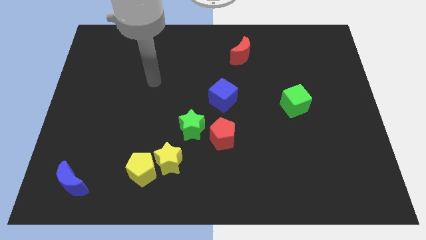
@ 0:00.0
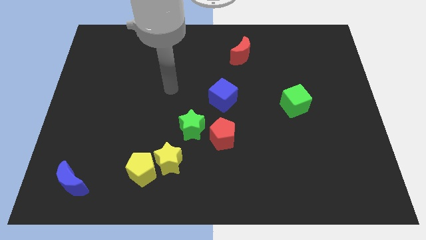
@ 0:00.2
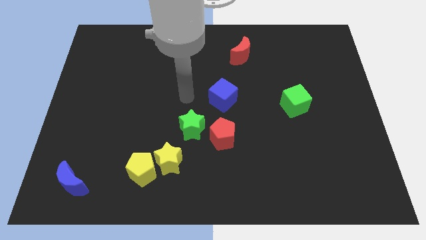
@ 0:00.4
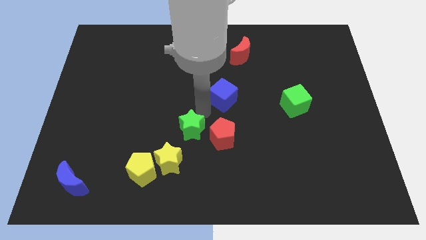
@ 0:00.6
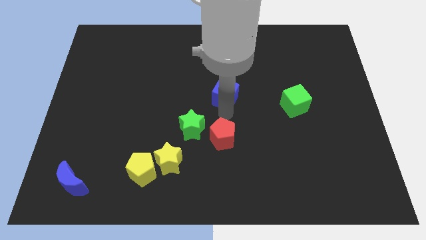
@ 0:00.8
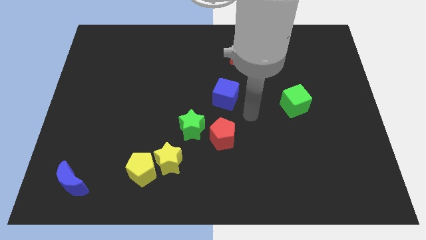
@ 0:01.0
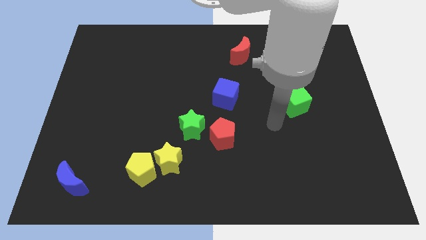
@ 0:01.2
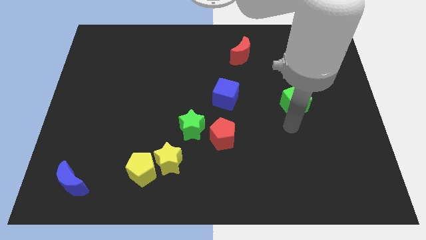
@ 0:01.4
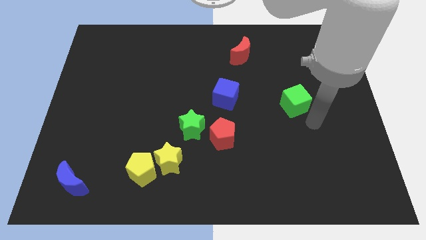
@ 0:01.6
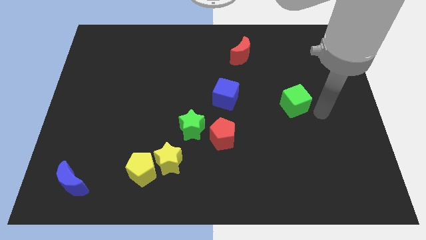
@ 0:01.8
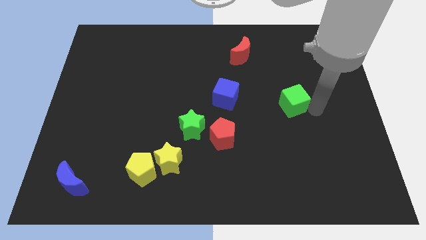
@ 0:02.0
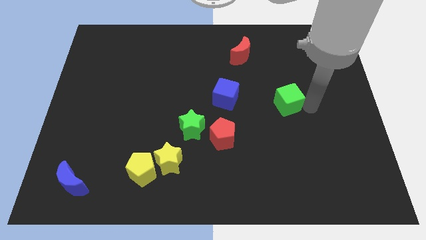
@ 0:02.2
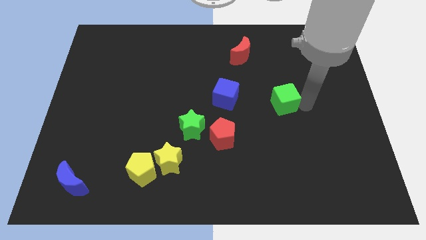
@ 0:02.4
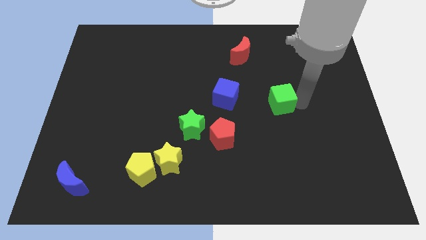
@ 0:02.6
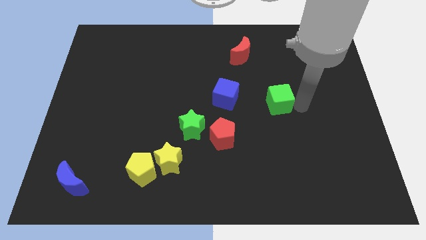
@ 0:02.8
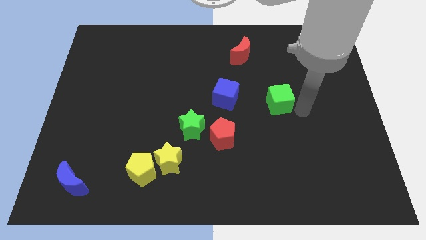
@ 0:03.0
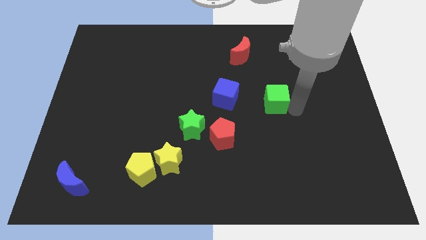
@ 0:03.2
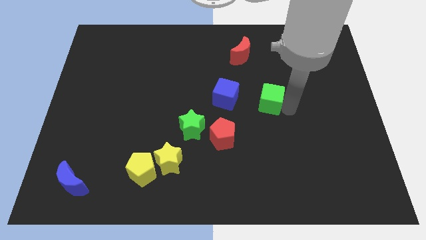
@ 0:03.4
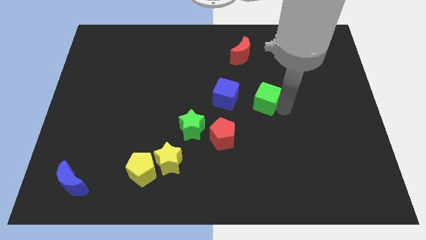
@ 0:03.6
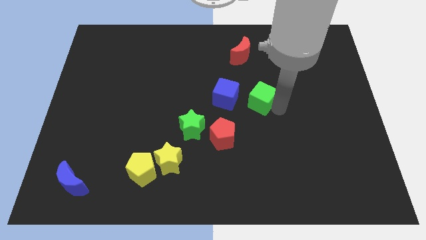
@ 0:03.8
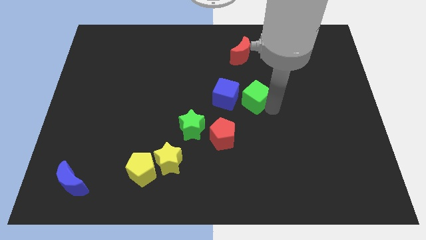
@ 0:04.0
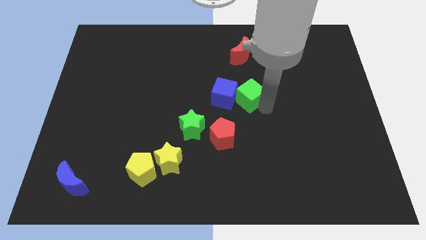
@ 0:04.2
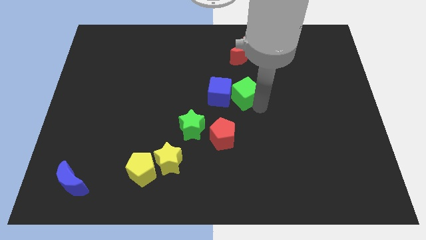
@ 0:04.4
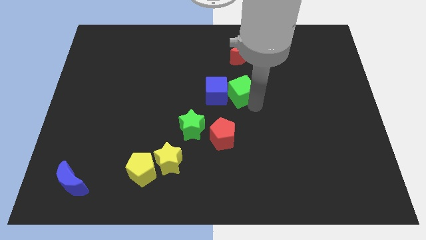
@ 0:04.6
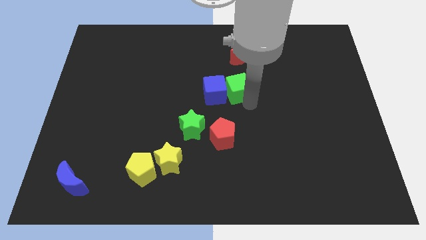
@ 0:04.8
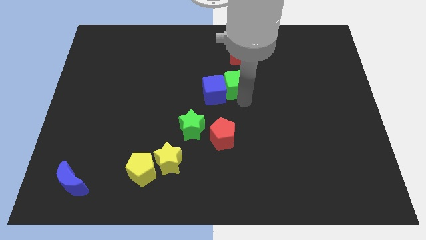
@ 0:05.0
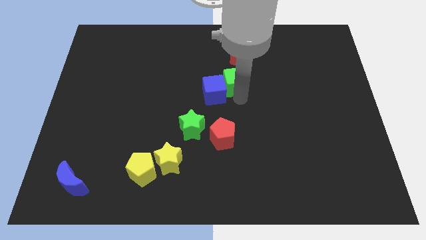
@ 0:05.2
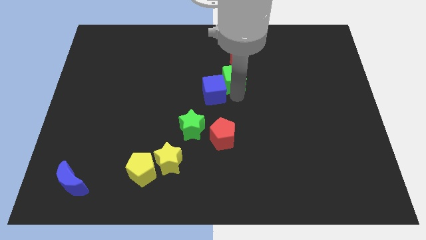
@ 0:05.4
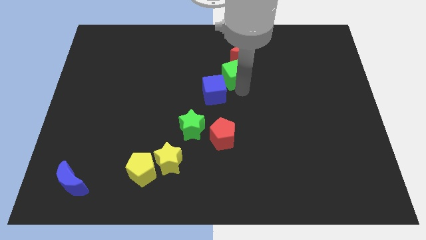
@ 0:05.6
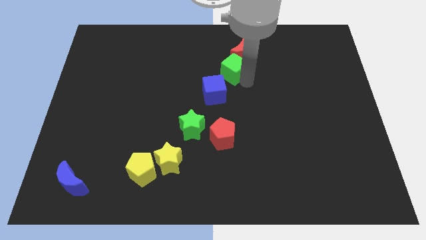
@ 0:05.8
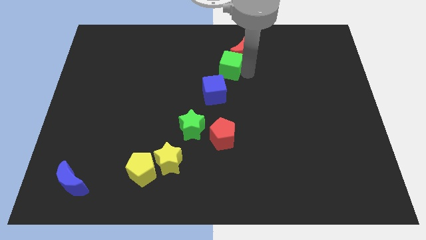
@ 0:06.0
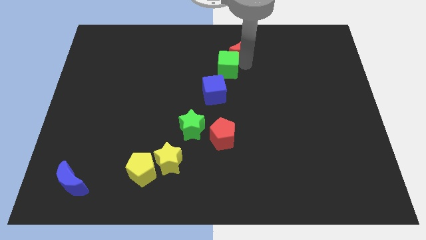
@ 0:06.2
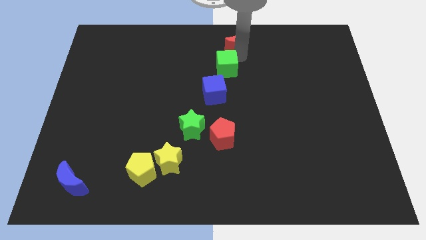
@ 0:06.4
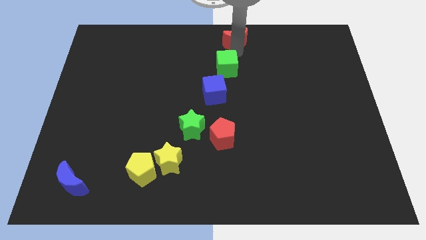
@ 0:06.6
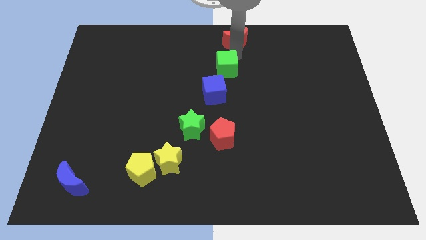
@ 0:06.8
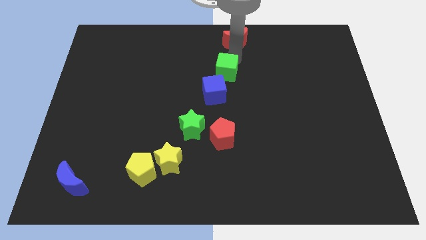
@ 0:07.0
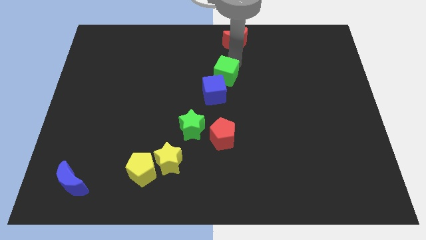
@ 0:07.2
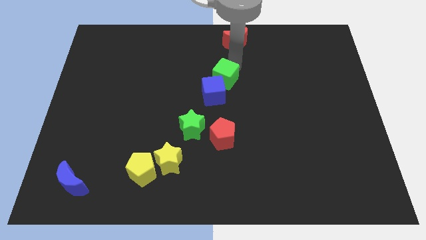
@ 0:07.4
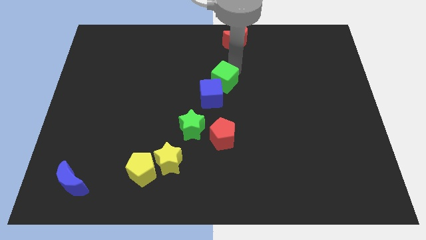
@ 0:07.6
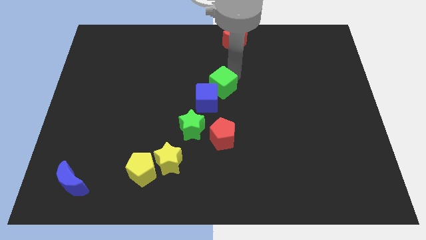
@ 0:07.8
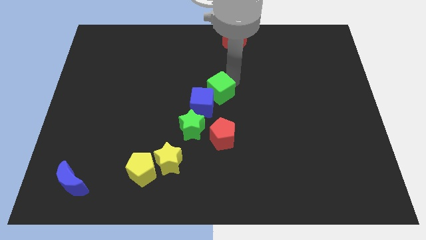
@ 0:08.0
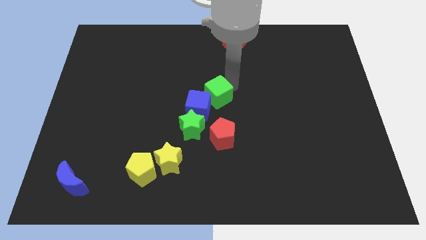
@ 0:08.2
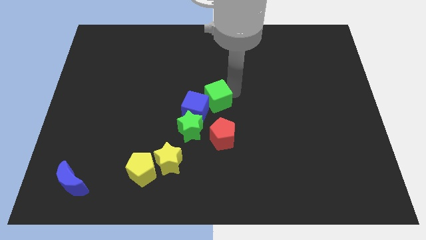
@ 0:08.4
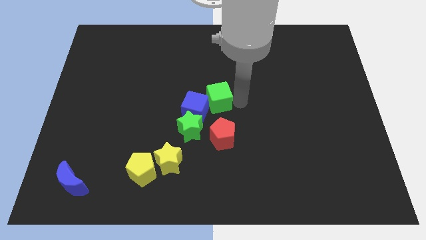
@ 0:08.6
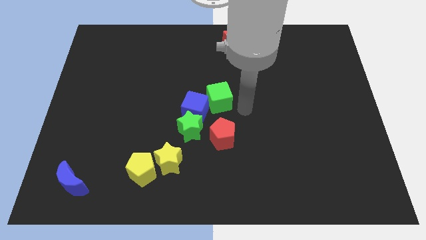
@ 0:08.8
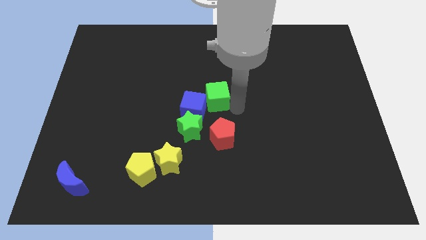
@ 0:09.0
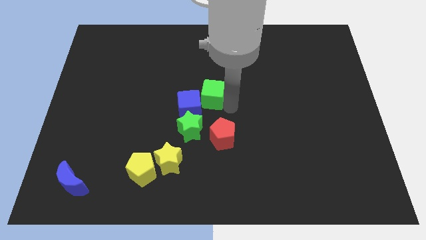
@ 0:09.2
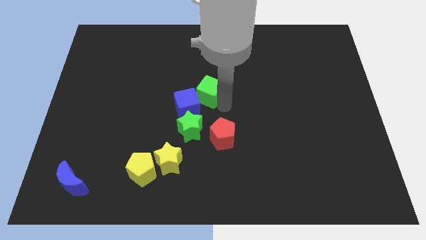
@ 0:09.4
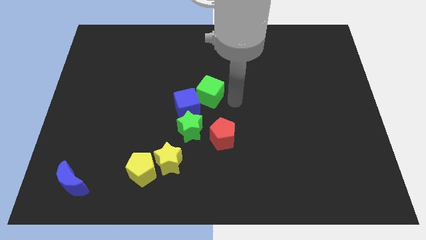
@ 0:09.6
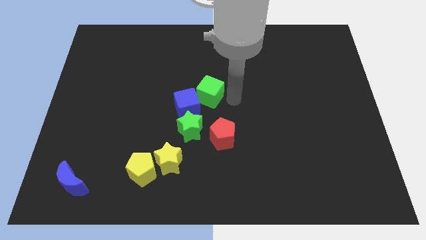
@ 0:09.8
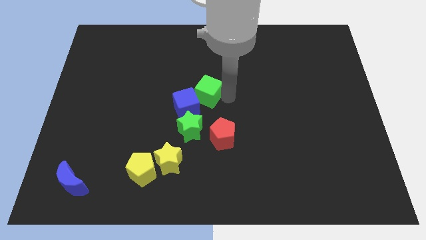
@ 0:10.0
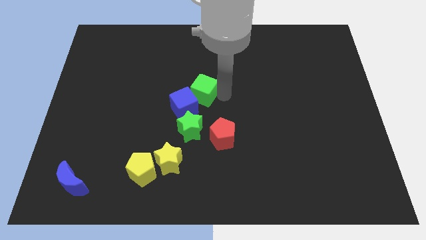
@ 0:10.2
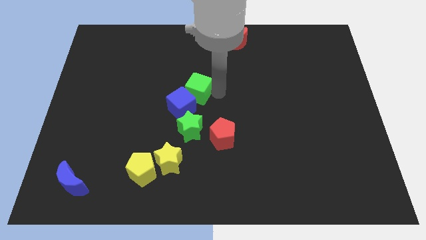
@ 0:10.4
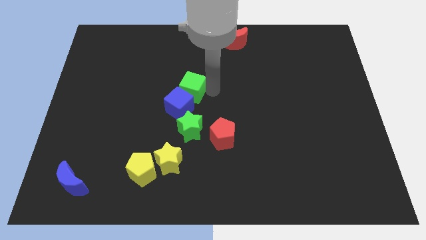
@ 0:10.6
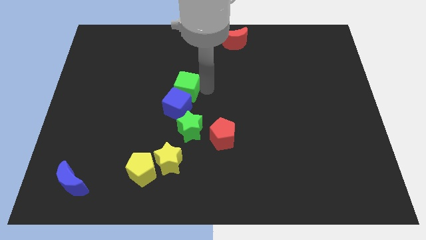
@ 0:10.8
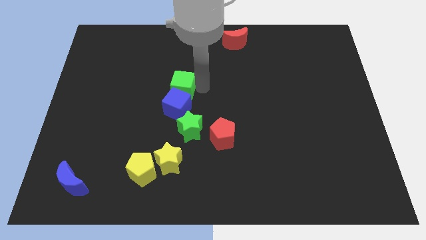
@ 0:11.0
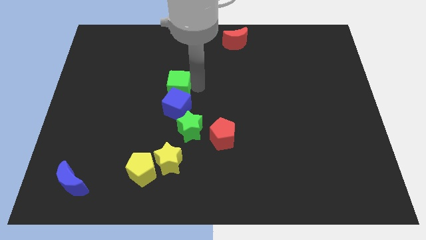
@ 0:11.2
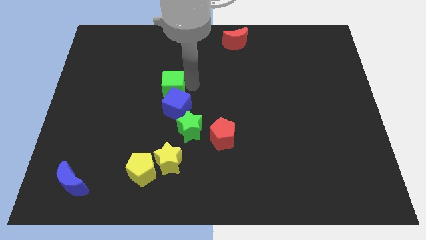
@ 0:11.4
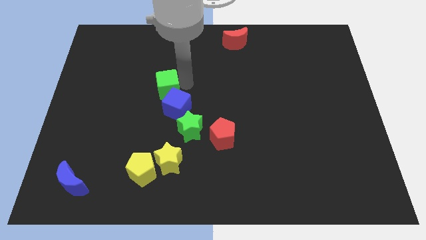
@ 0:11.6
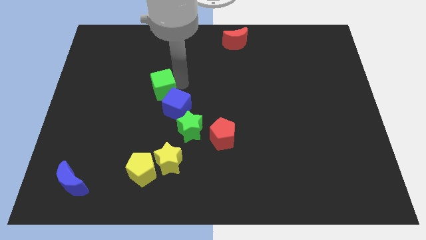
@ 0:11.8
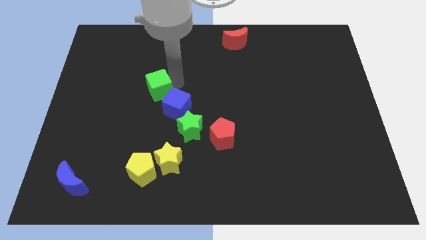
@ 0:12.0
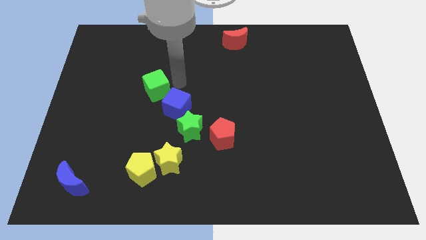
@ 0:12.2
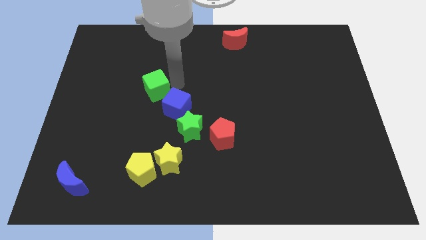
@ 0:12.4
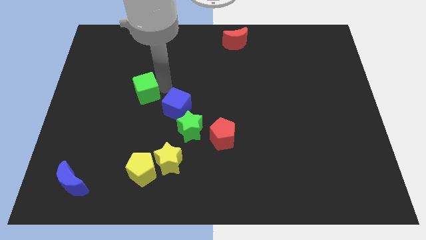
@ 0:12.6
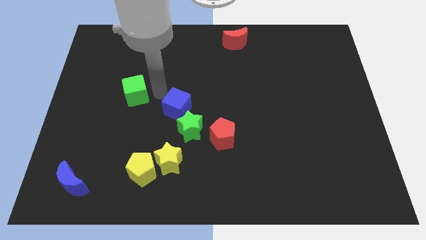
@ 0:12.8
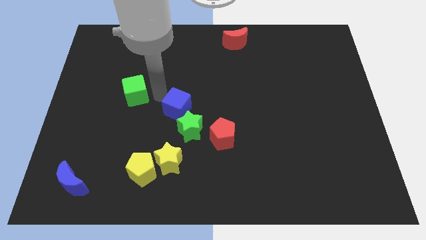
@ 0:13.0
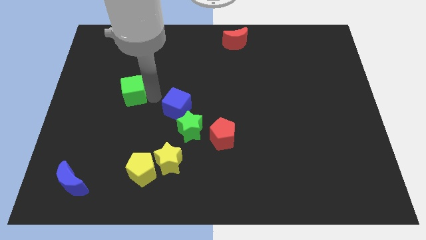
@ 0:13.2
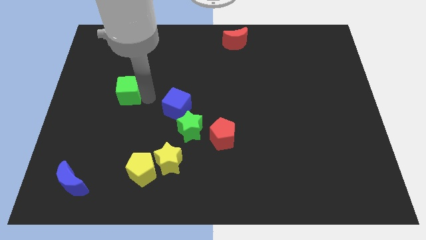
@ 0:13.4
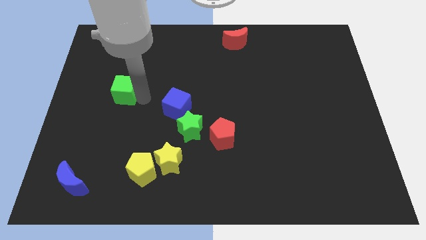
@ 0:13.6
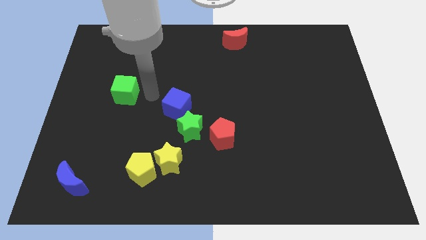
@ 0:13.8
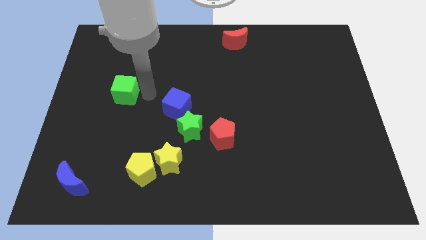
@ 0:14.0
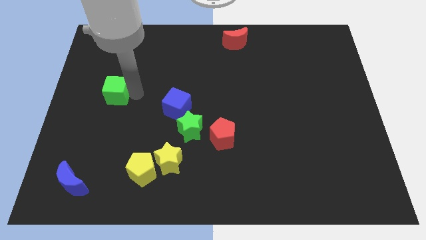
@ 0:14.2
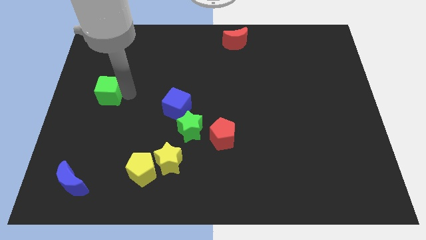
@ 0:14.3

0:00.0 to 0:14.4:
move the green cube to the center left
